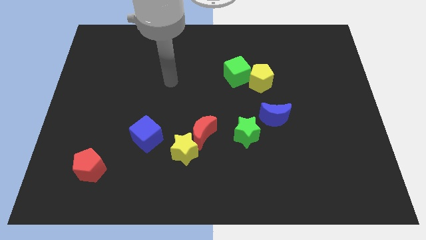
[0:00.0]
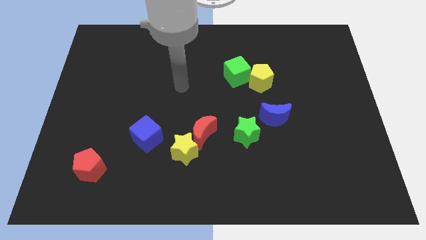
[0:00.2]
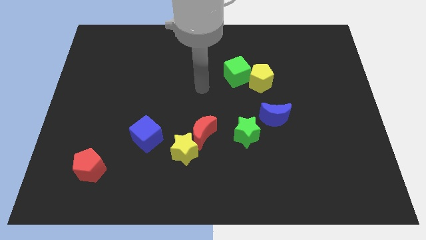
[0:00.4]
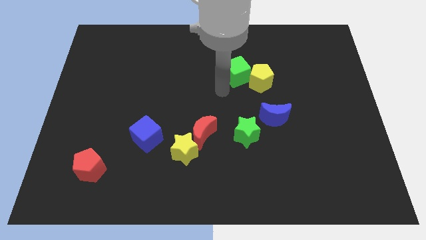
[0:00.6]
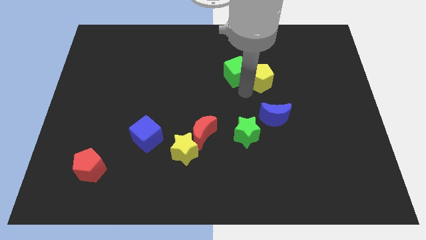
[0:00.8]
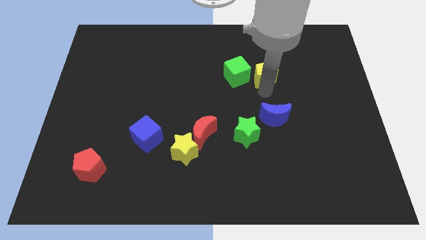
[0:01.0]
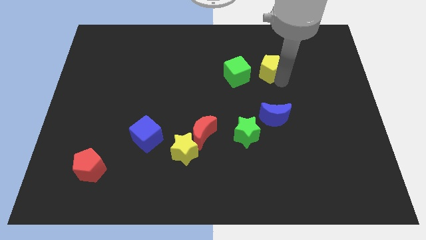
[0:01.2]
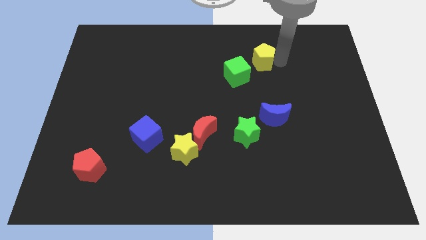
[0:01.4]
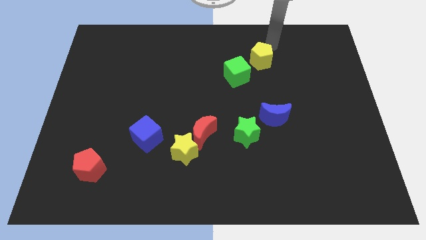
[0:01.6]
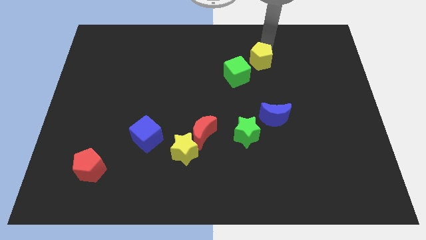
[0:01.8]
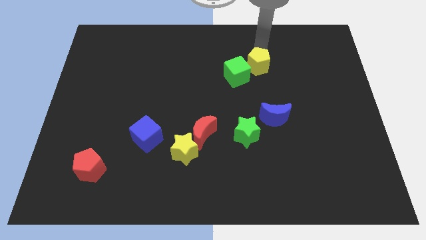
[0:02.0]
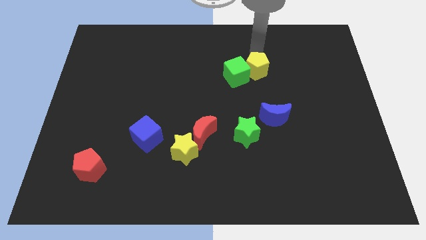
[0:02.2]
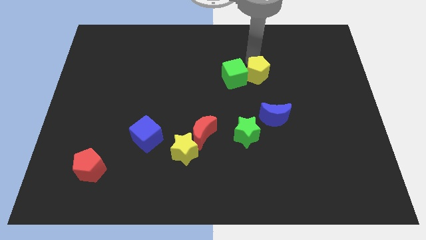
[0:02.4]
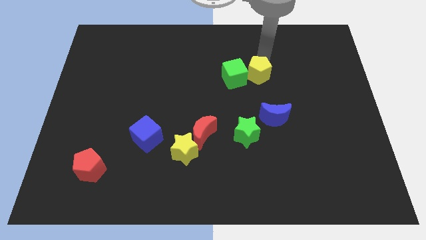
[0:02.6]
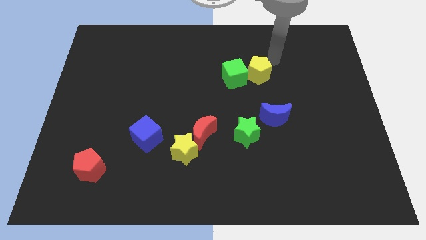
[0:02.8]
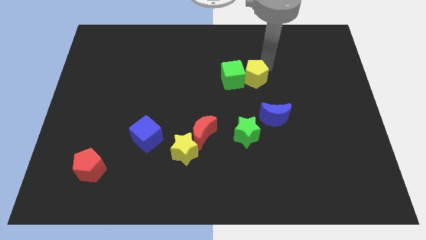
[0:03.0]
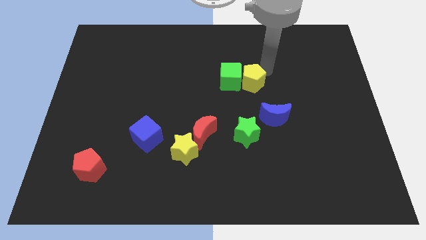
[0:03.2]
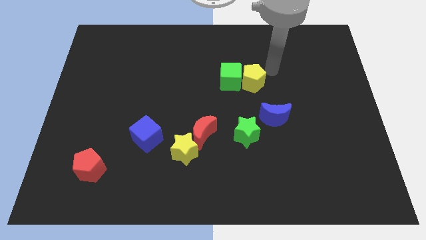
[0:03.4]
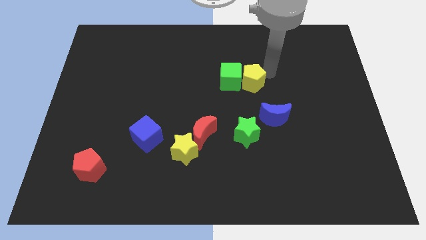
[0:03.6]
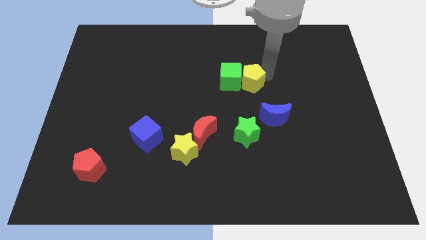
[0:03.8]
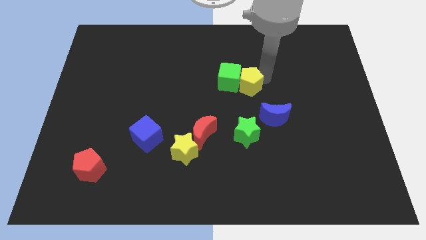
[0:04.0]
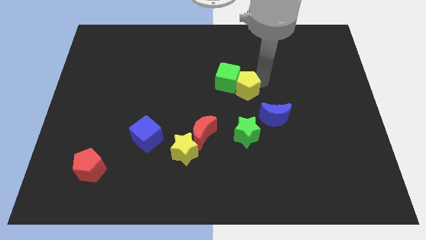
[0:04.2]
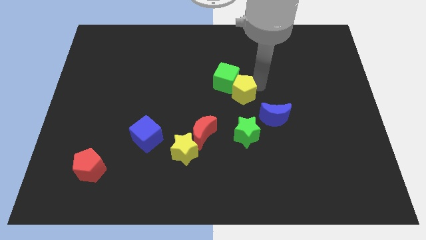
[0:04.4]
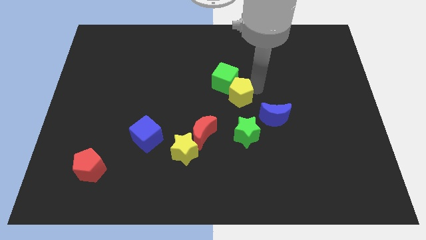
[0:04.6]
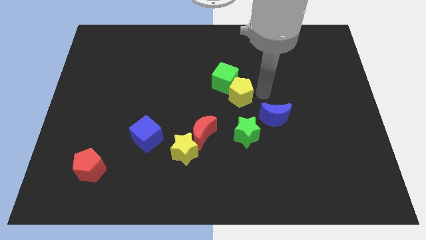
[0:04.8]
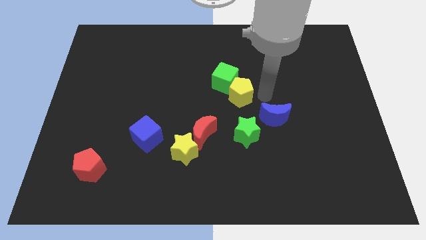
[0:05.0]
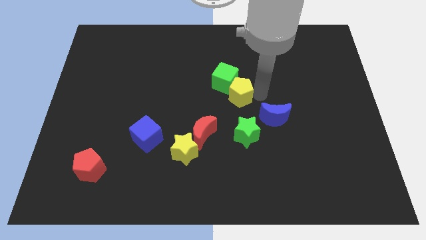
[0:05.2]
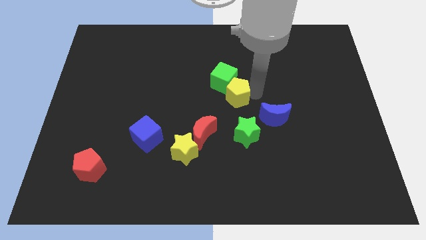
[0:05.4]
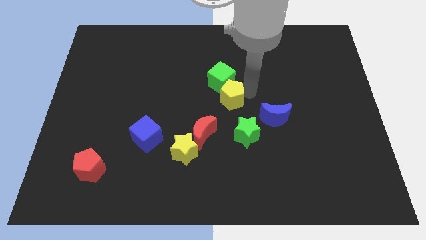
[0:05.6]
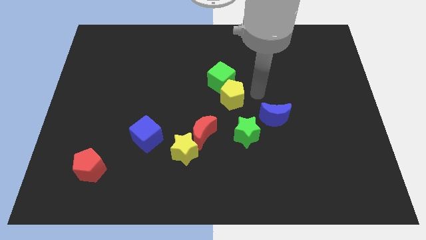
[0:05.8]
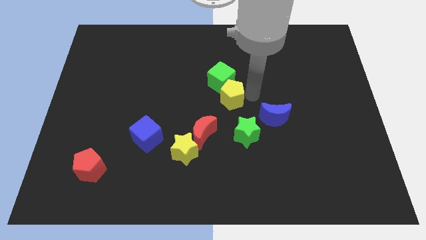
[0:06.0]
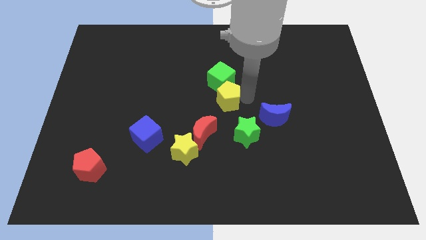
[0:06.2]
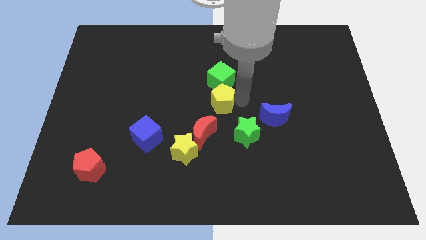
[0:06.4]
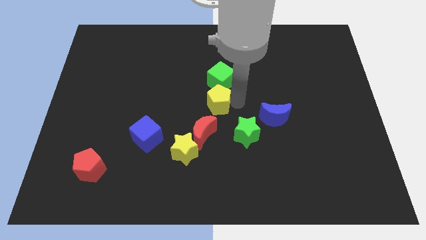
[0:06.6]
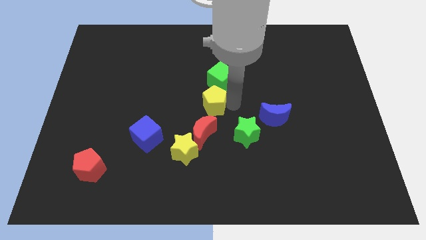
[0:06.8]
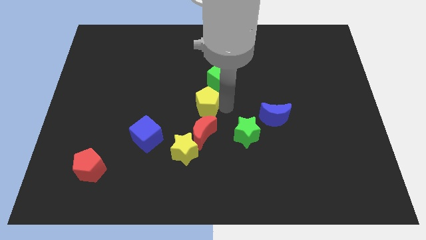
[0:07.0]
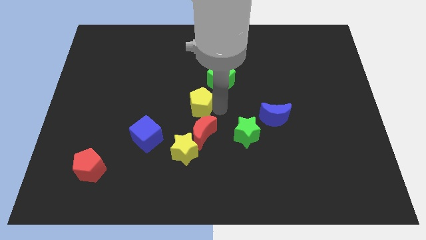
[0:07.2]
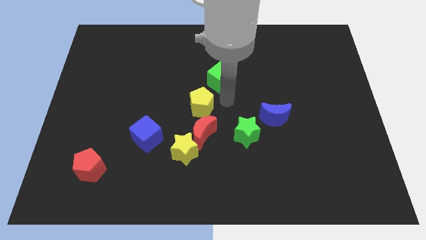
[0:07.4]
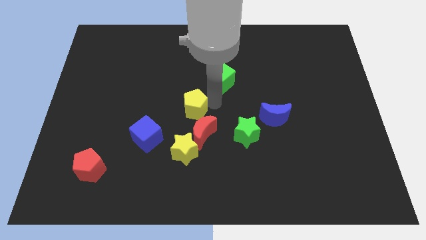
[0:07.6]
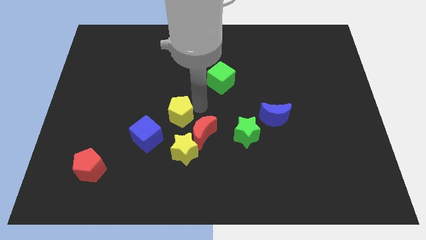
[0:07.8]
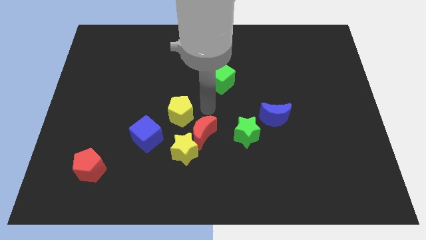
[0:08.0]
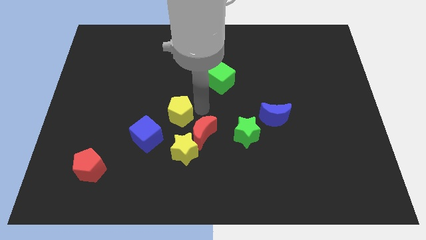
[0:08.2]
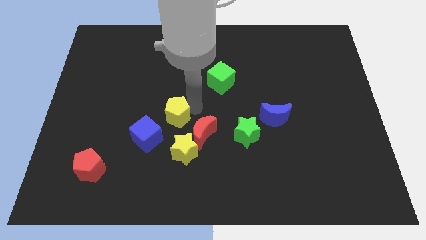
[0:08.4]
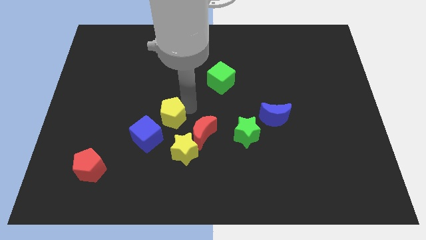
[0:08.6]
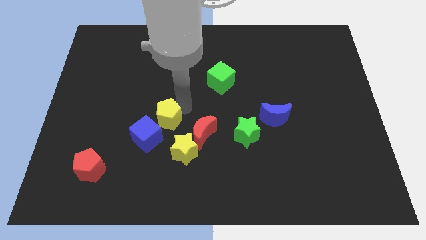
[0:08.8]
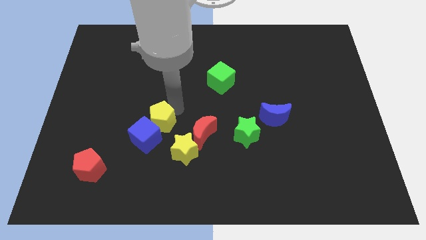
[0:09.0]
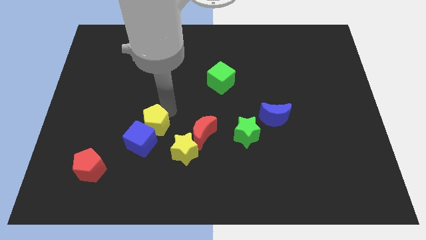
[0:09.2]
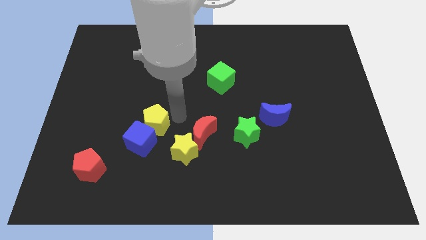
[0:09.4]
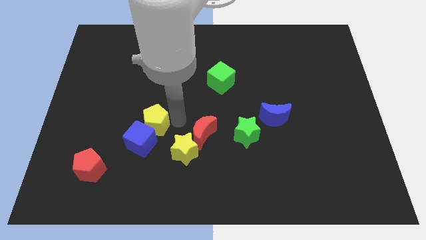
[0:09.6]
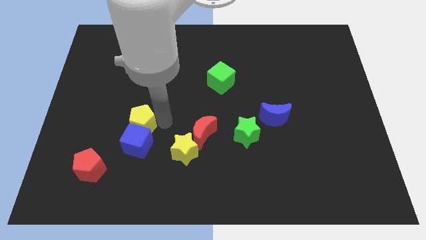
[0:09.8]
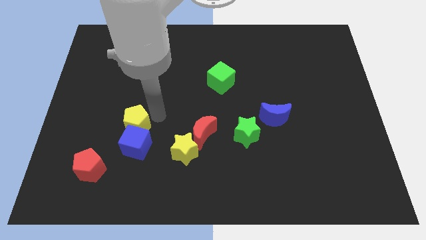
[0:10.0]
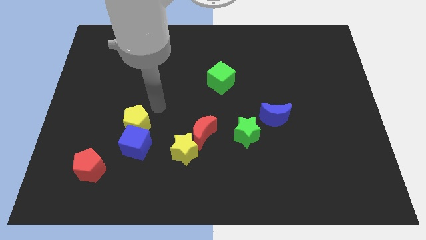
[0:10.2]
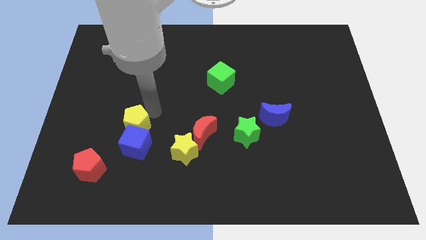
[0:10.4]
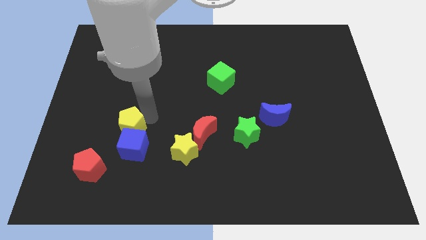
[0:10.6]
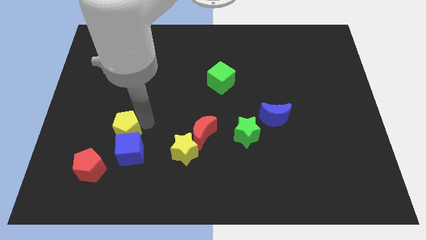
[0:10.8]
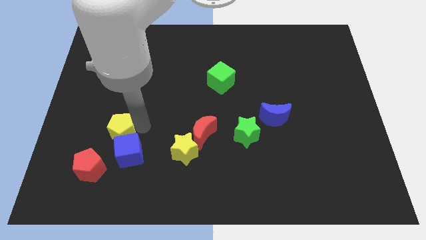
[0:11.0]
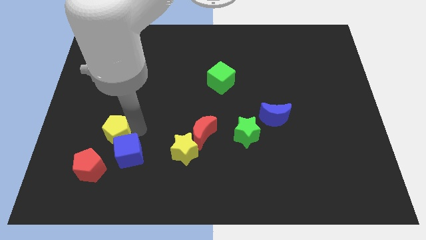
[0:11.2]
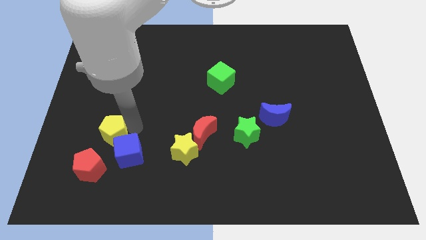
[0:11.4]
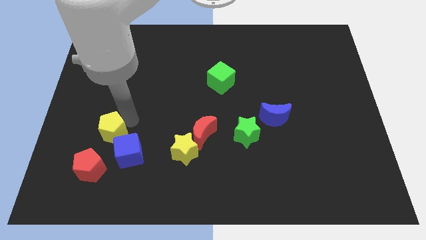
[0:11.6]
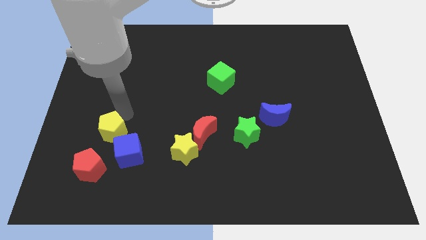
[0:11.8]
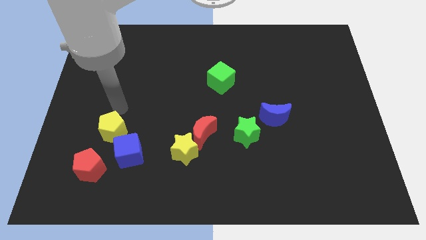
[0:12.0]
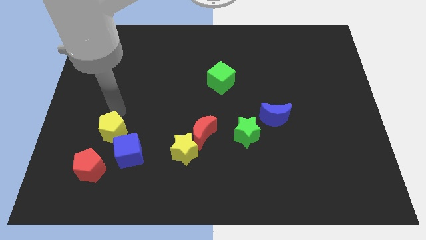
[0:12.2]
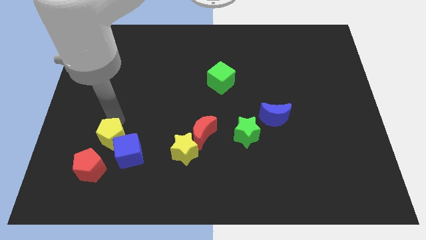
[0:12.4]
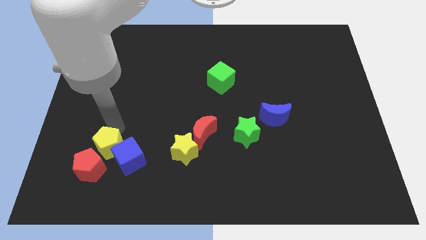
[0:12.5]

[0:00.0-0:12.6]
slide the yellow pentagon close to the red pentagon
